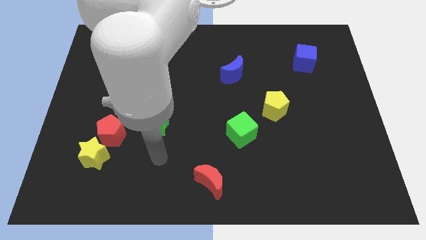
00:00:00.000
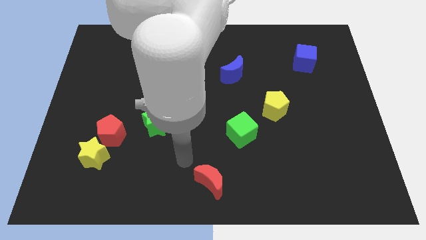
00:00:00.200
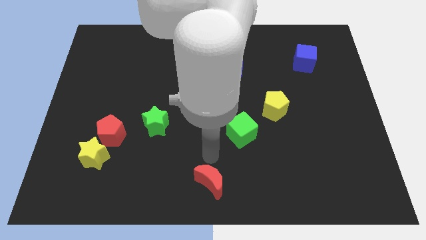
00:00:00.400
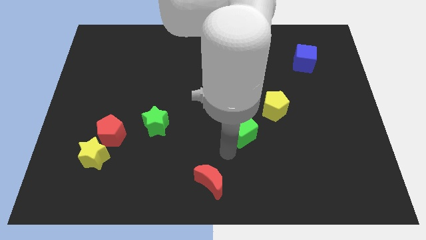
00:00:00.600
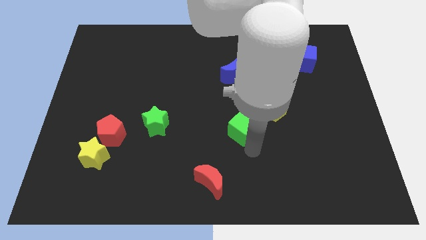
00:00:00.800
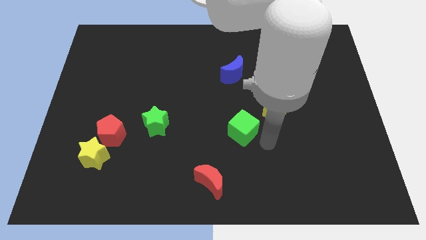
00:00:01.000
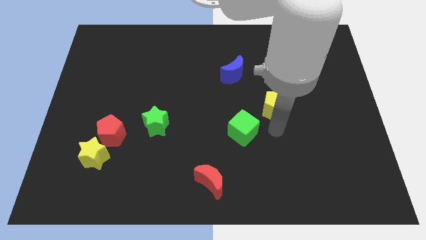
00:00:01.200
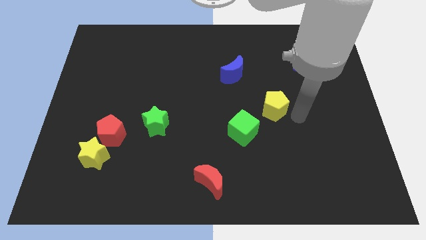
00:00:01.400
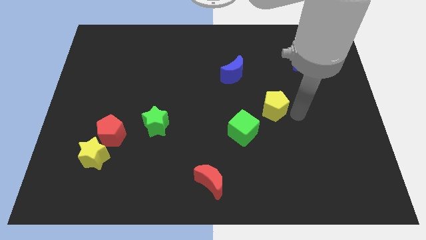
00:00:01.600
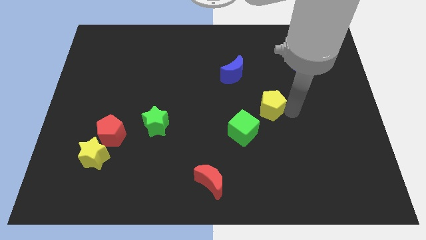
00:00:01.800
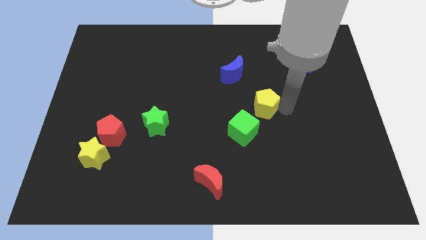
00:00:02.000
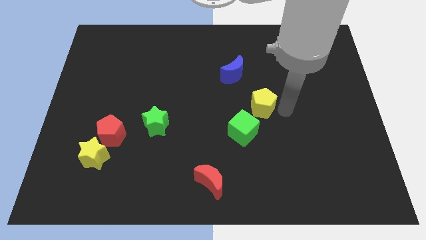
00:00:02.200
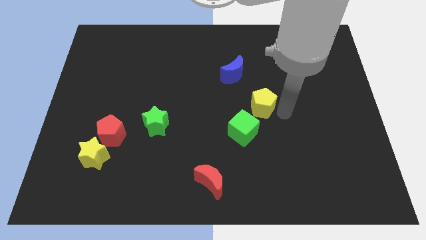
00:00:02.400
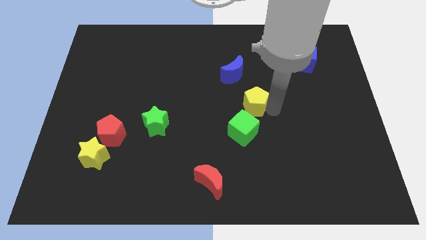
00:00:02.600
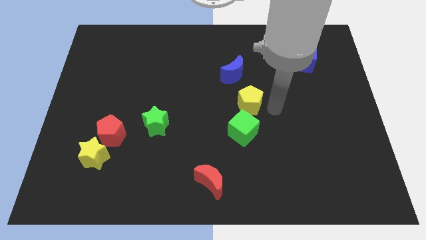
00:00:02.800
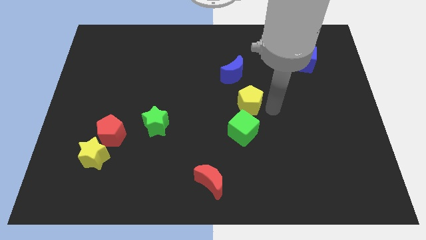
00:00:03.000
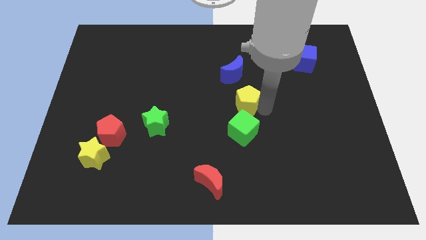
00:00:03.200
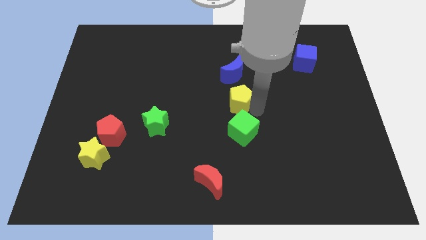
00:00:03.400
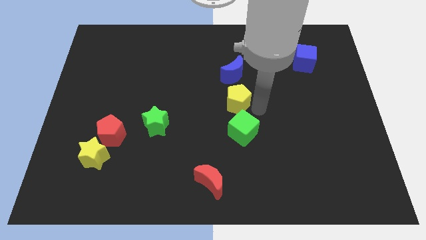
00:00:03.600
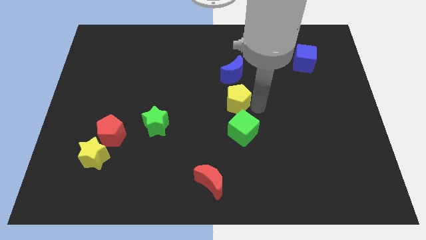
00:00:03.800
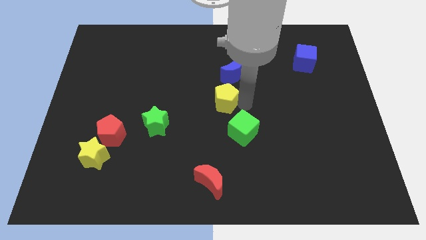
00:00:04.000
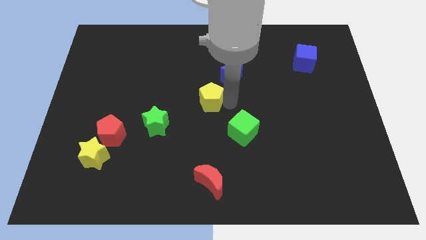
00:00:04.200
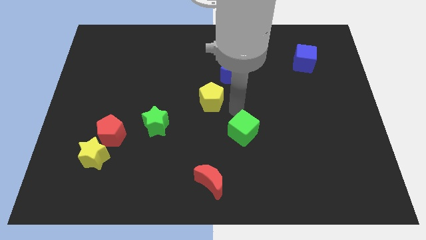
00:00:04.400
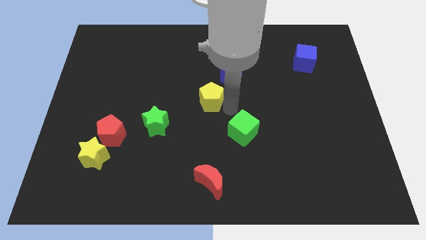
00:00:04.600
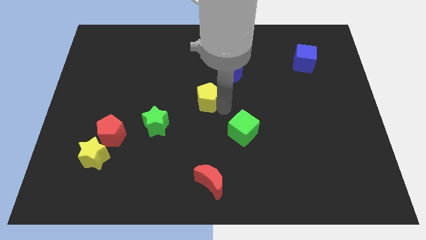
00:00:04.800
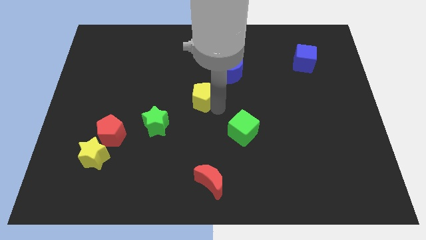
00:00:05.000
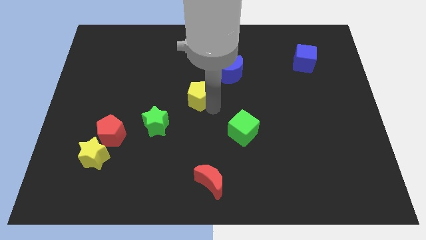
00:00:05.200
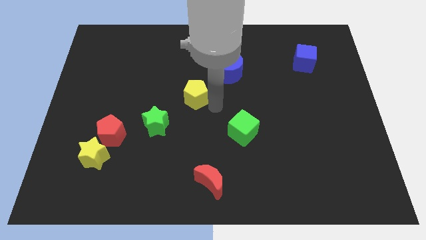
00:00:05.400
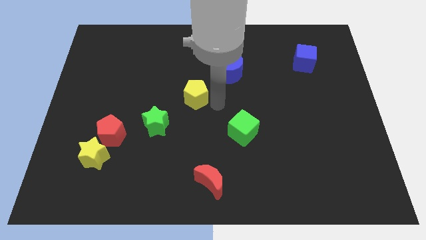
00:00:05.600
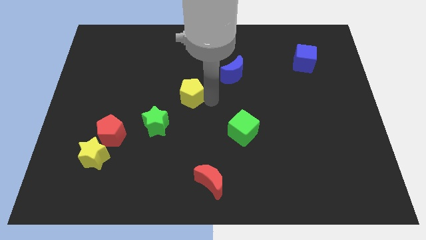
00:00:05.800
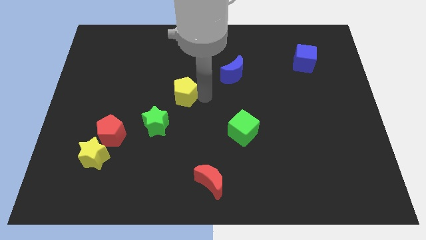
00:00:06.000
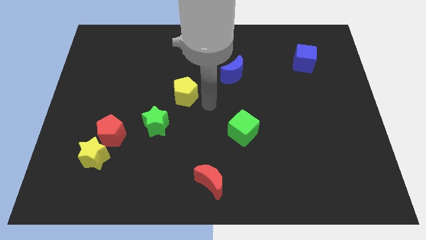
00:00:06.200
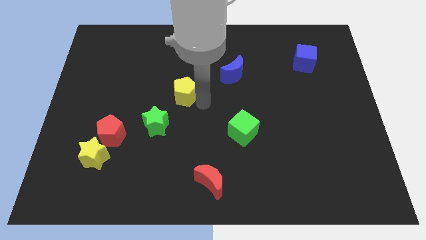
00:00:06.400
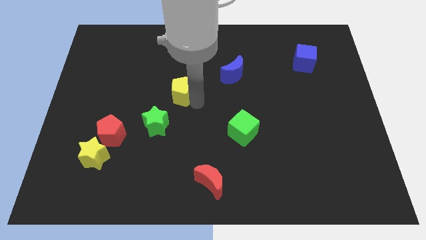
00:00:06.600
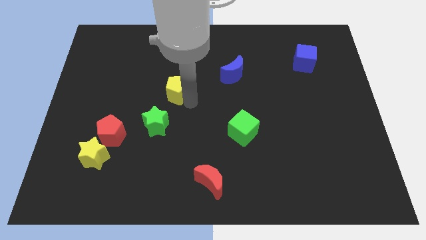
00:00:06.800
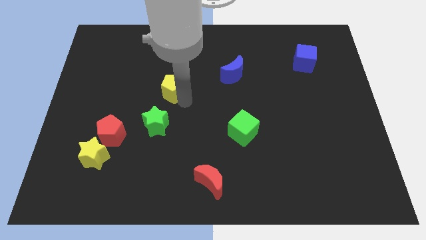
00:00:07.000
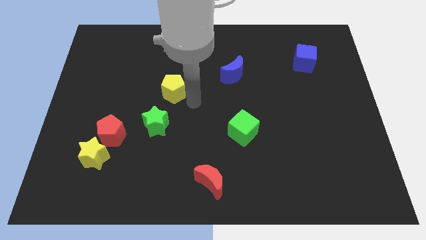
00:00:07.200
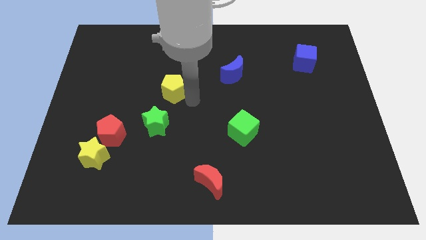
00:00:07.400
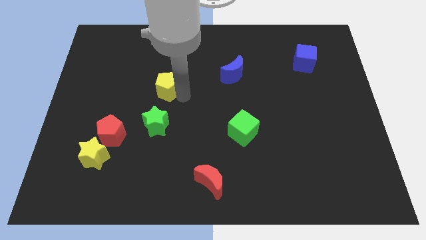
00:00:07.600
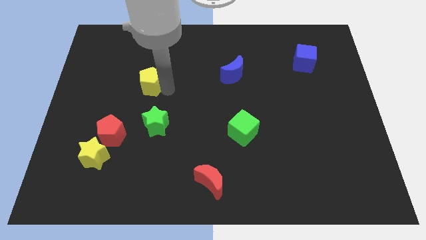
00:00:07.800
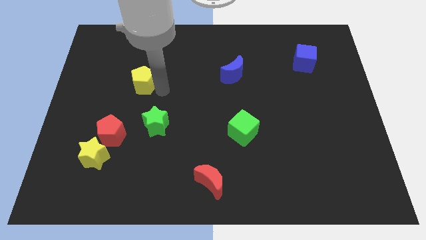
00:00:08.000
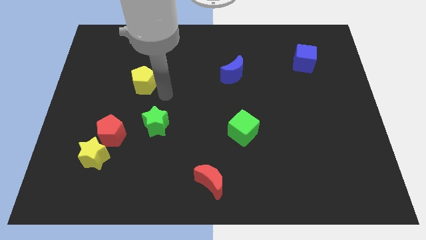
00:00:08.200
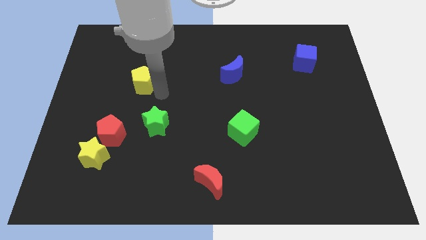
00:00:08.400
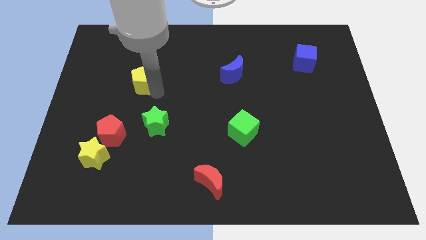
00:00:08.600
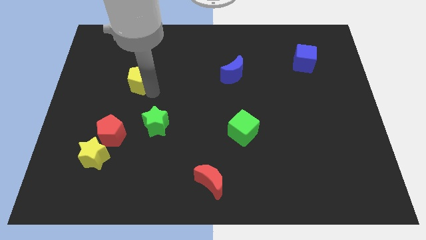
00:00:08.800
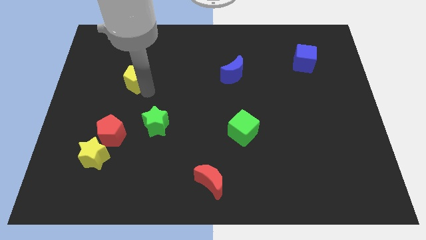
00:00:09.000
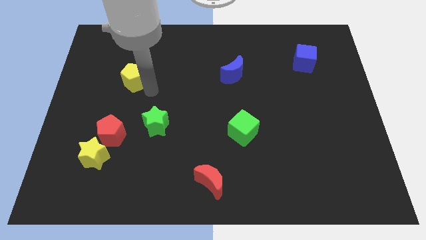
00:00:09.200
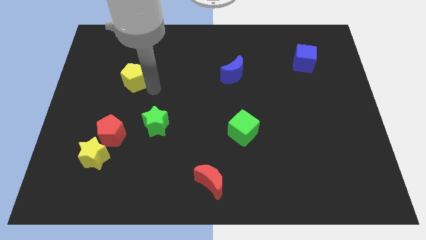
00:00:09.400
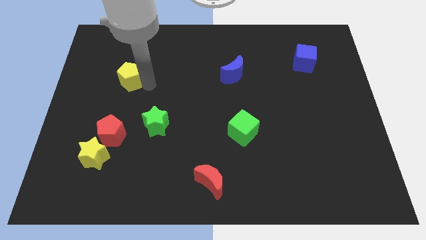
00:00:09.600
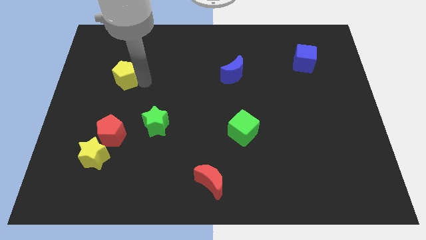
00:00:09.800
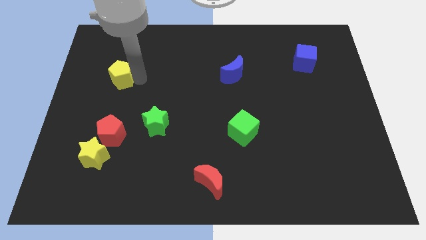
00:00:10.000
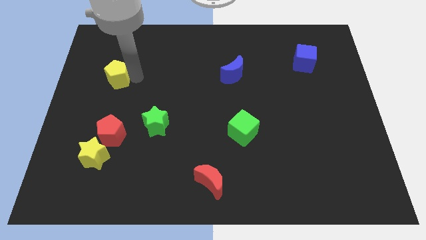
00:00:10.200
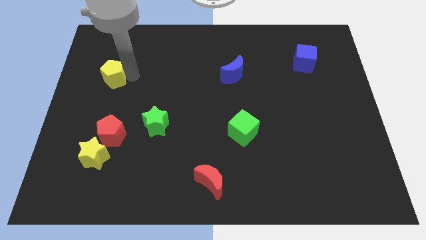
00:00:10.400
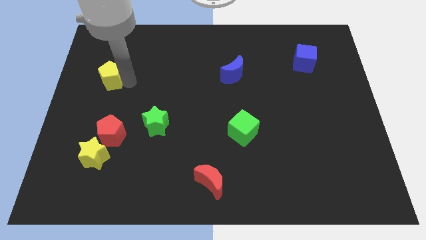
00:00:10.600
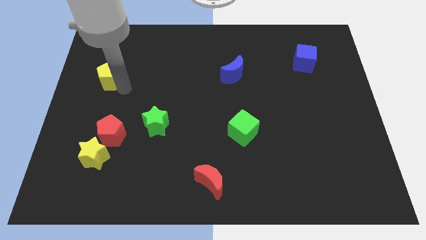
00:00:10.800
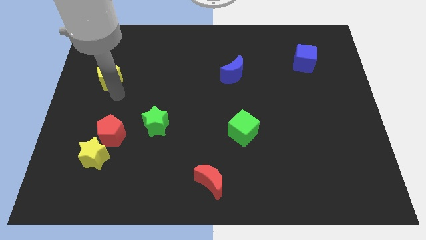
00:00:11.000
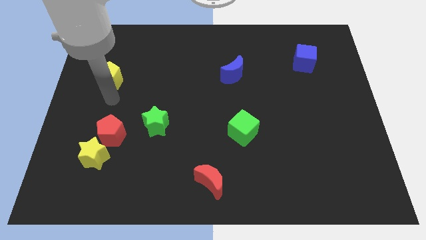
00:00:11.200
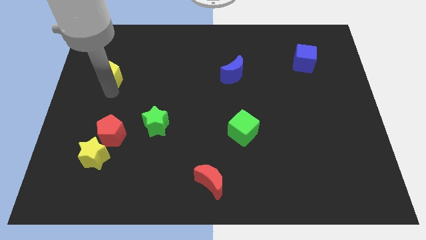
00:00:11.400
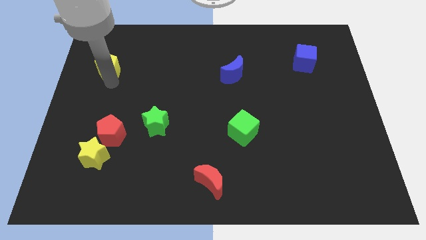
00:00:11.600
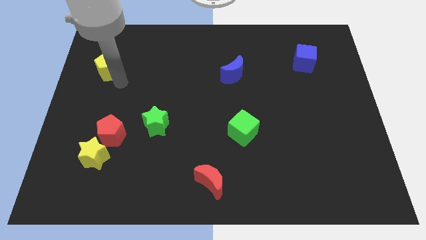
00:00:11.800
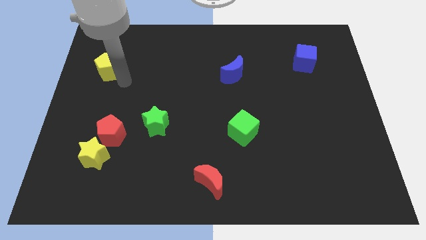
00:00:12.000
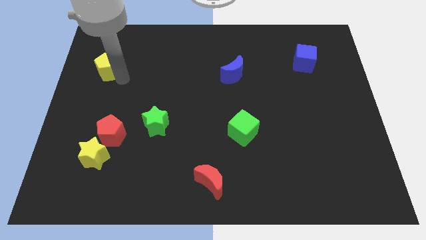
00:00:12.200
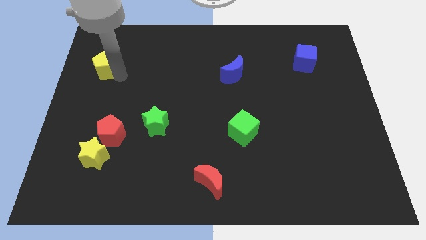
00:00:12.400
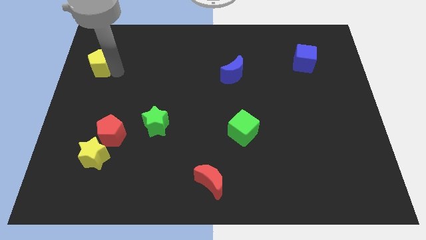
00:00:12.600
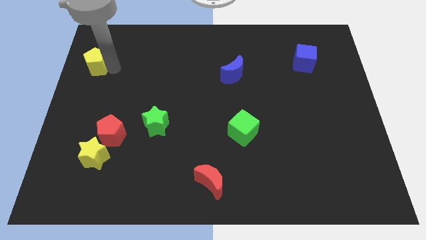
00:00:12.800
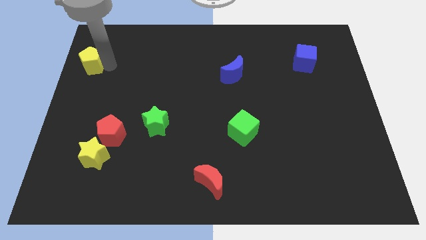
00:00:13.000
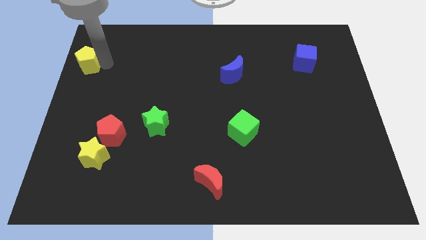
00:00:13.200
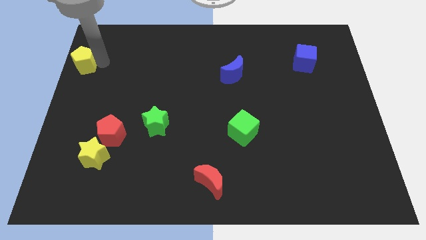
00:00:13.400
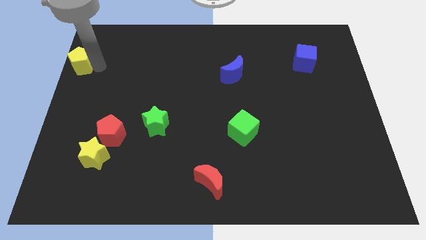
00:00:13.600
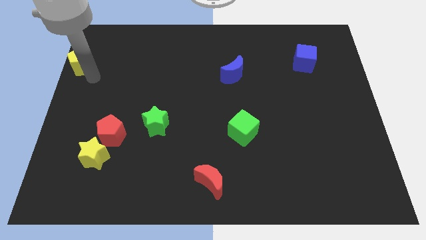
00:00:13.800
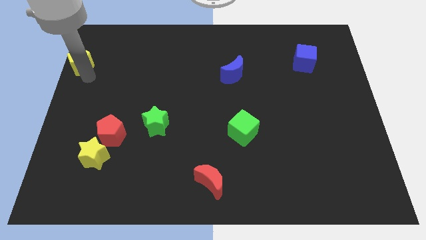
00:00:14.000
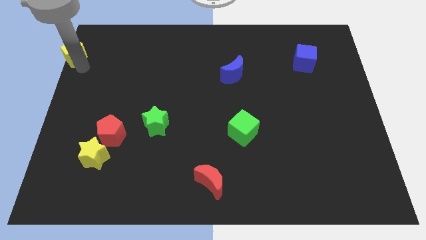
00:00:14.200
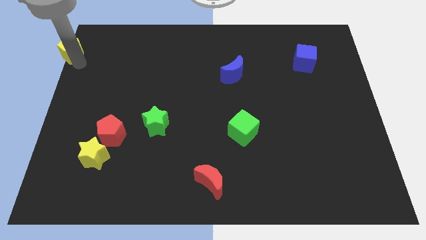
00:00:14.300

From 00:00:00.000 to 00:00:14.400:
push the yellow pentagon to the top left
